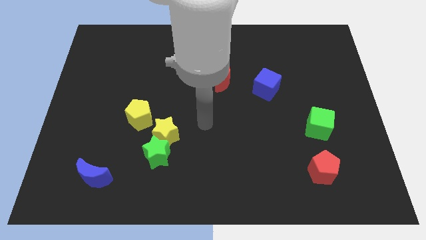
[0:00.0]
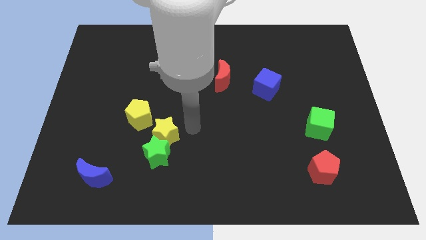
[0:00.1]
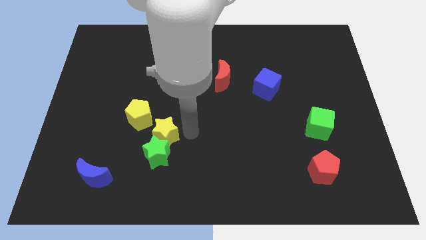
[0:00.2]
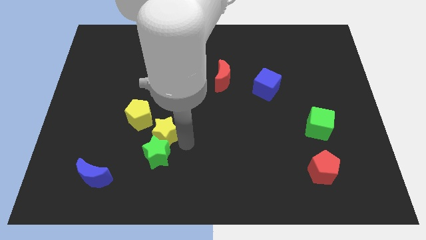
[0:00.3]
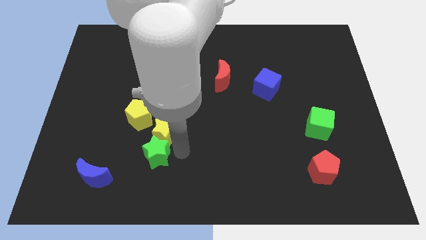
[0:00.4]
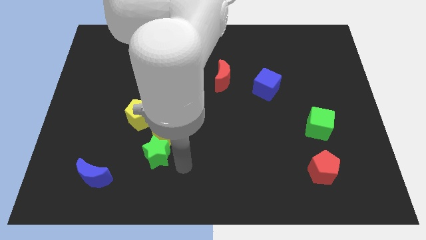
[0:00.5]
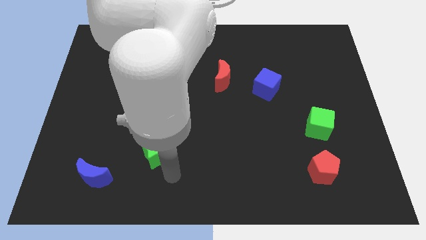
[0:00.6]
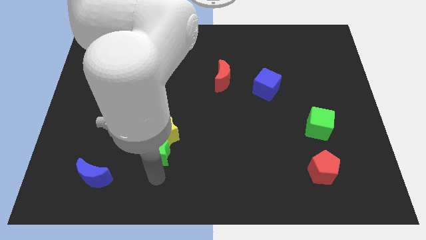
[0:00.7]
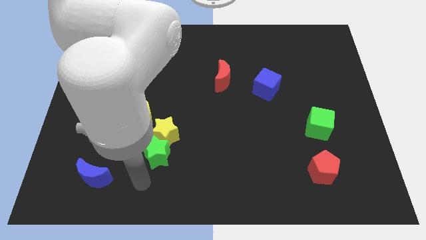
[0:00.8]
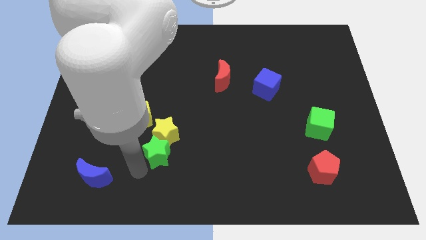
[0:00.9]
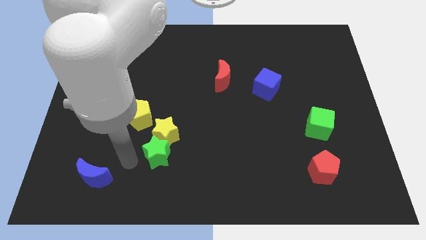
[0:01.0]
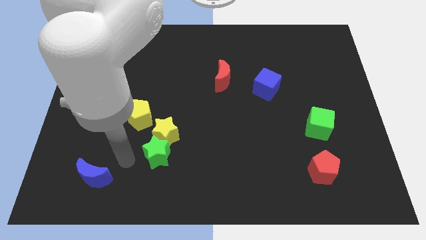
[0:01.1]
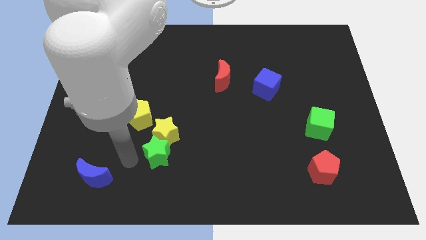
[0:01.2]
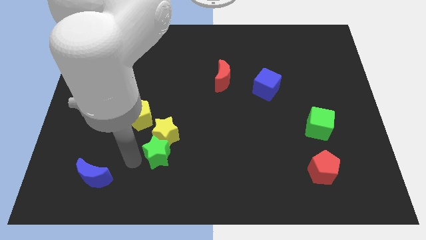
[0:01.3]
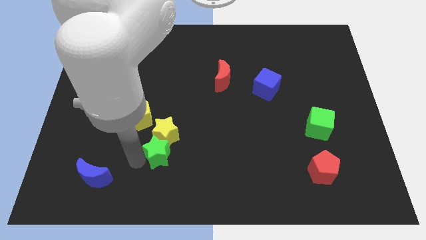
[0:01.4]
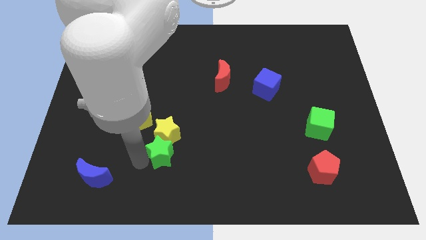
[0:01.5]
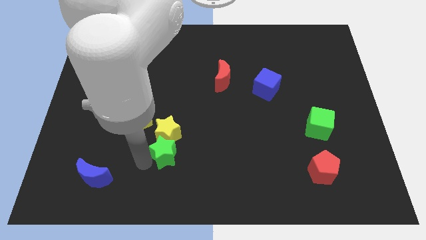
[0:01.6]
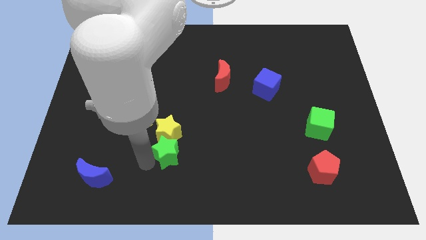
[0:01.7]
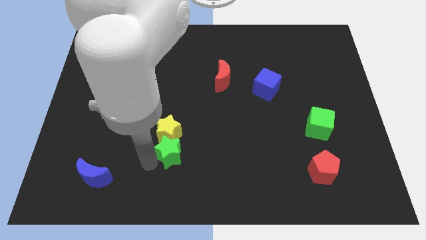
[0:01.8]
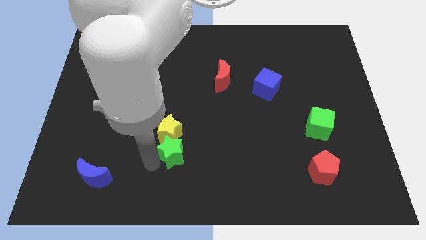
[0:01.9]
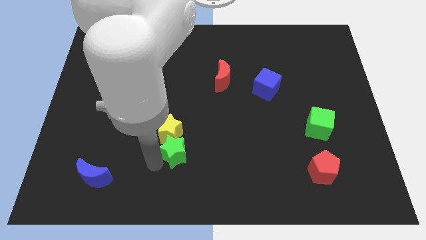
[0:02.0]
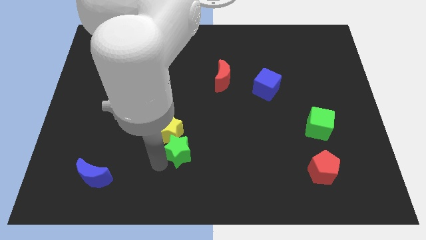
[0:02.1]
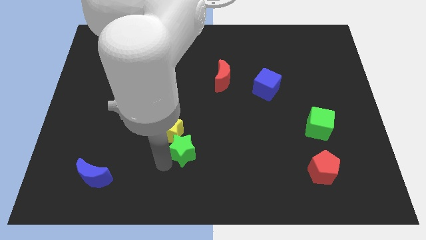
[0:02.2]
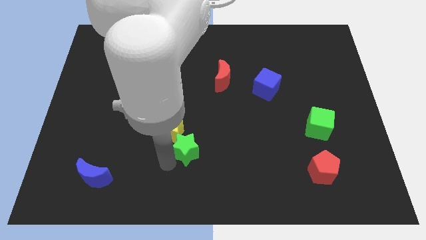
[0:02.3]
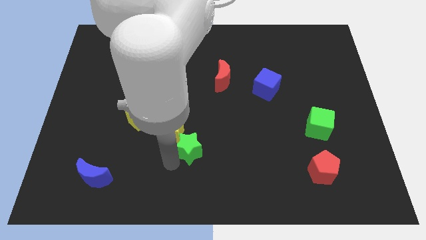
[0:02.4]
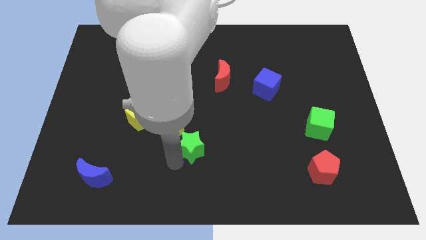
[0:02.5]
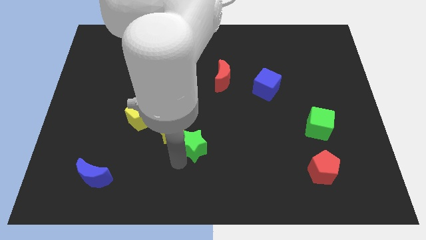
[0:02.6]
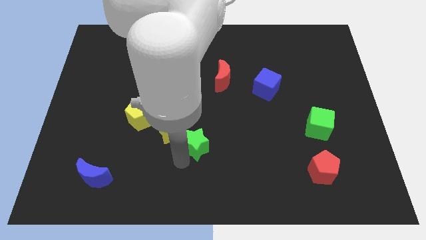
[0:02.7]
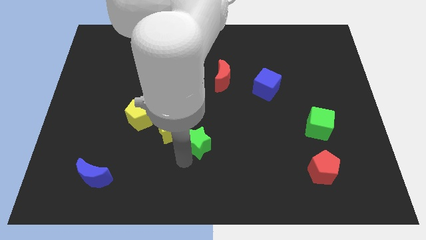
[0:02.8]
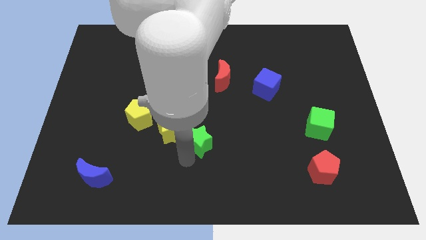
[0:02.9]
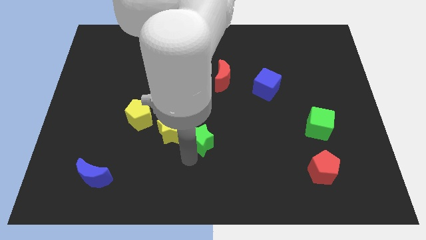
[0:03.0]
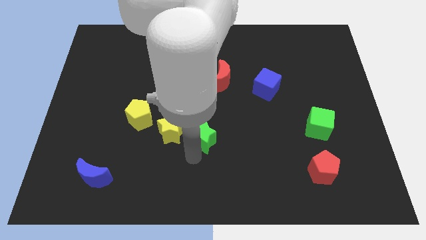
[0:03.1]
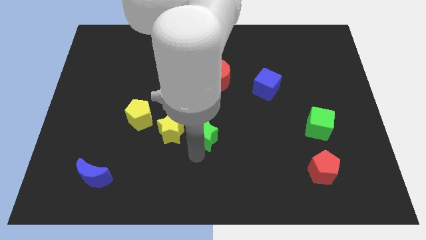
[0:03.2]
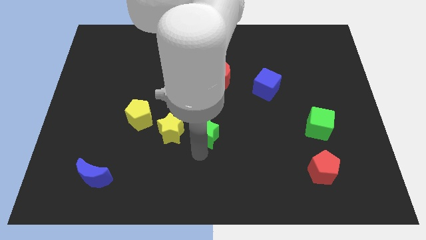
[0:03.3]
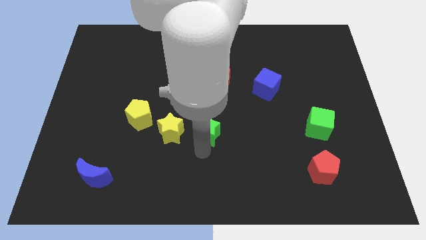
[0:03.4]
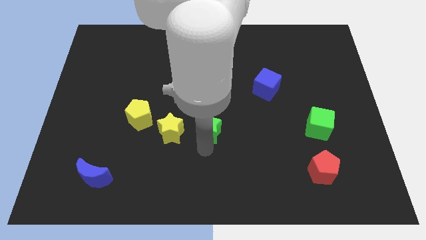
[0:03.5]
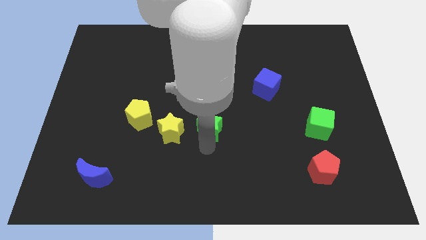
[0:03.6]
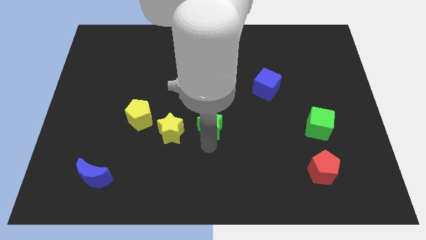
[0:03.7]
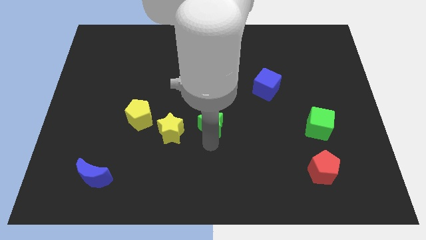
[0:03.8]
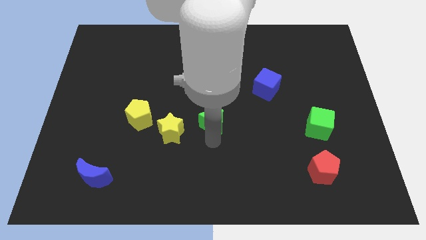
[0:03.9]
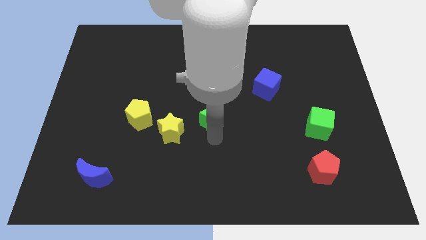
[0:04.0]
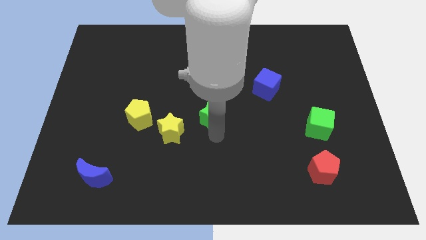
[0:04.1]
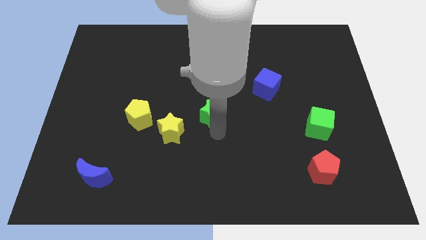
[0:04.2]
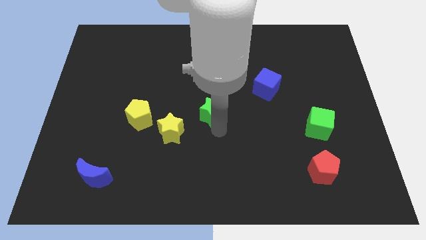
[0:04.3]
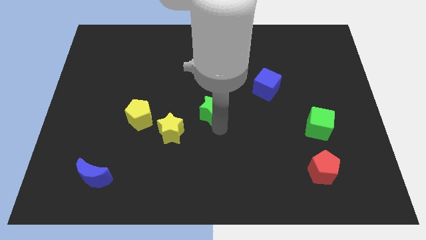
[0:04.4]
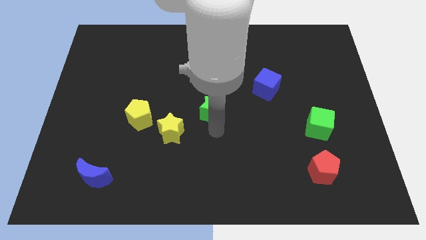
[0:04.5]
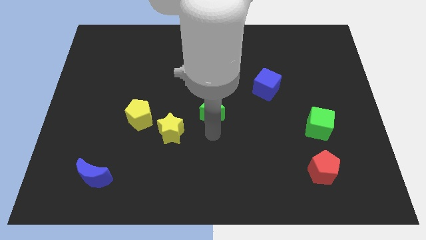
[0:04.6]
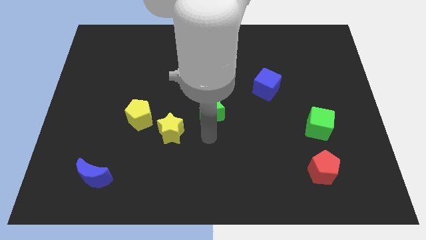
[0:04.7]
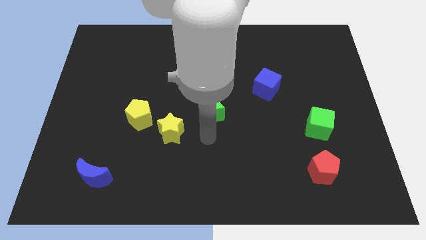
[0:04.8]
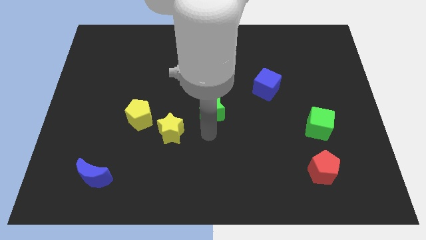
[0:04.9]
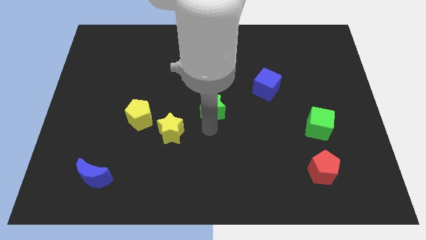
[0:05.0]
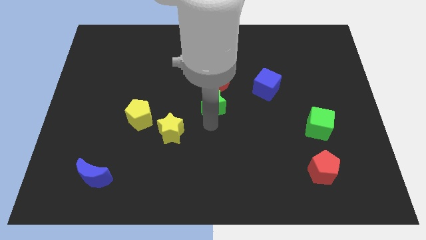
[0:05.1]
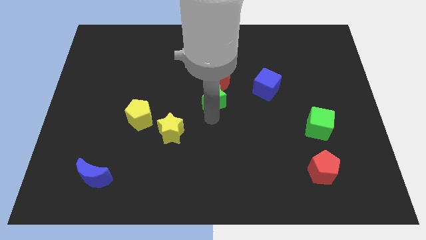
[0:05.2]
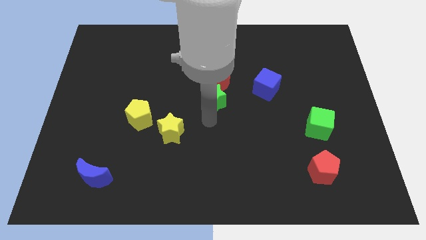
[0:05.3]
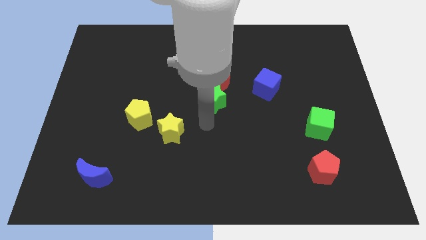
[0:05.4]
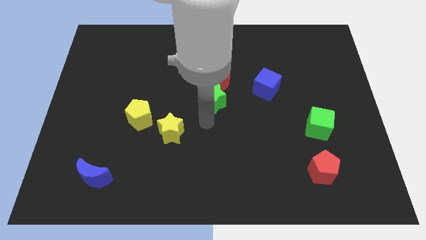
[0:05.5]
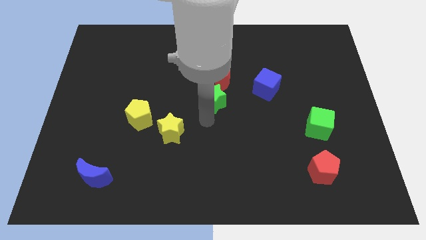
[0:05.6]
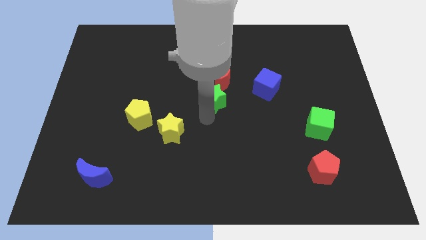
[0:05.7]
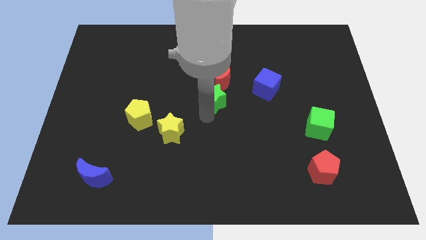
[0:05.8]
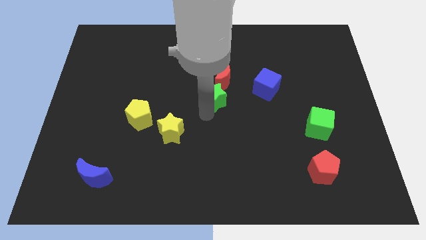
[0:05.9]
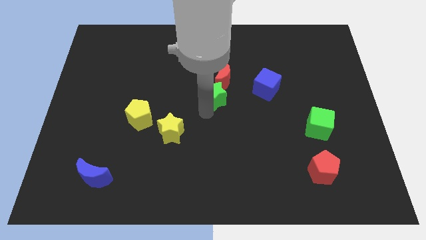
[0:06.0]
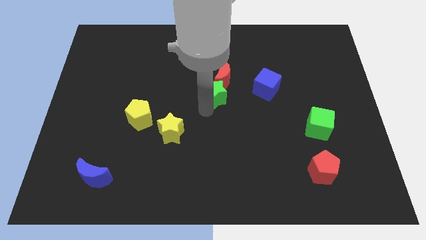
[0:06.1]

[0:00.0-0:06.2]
move the green star towards the red moon

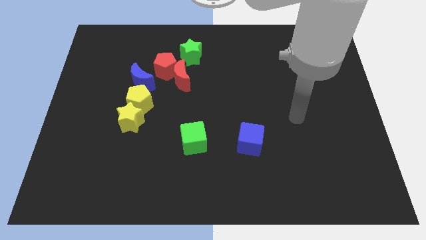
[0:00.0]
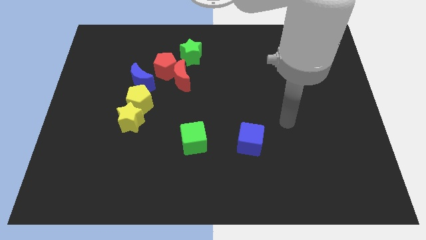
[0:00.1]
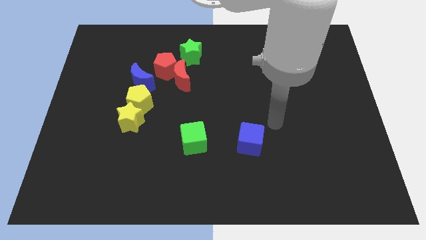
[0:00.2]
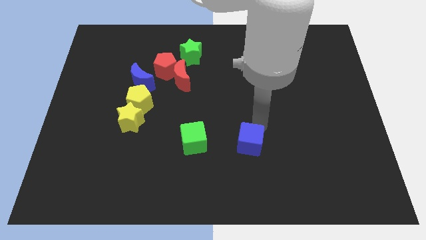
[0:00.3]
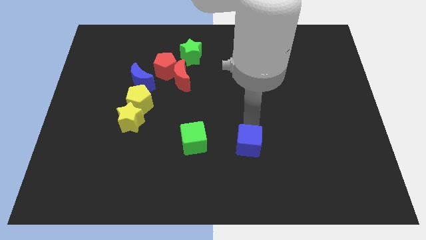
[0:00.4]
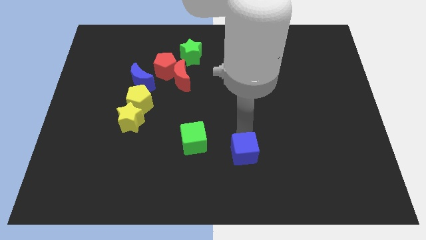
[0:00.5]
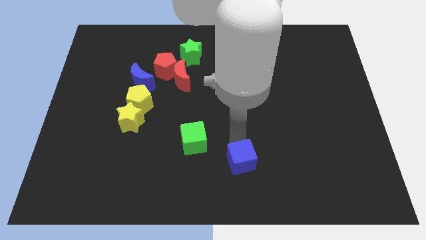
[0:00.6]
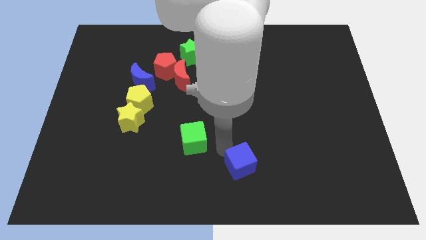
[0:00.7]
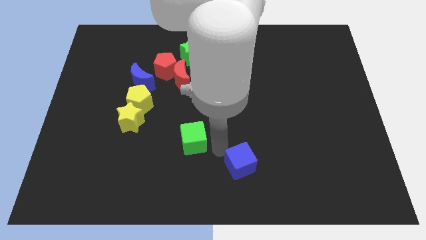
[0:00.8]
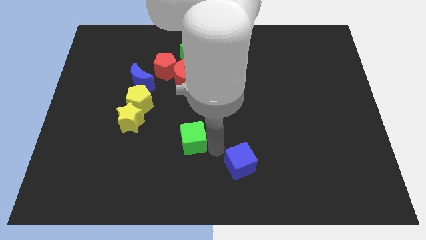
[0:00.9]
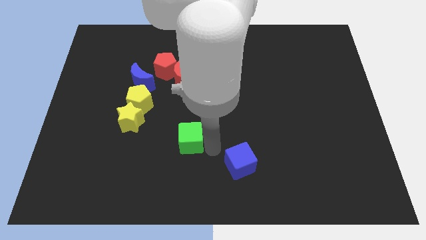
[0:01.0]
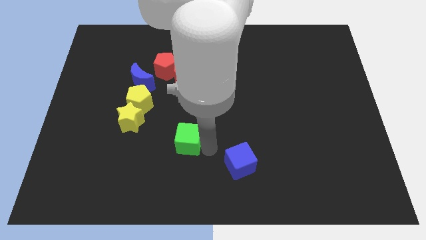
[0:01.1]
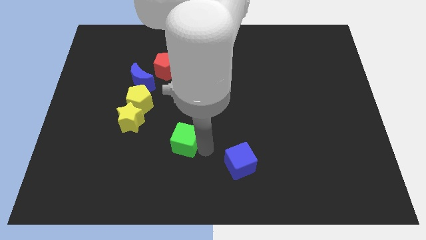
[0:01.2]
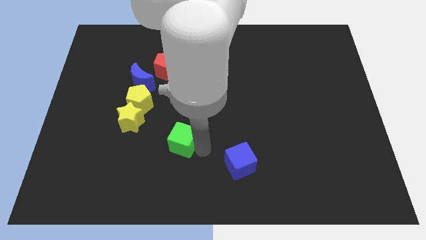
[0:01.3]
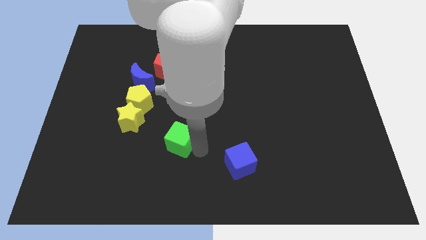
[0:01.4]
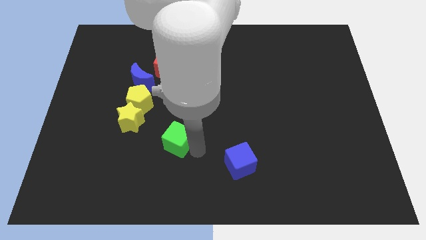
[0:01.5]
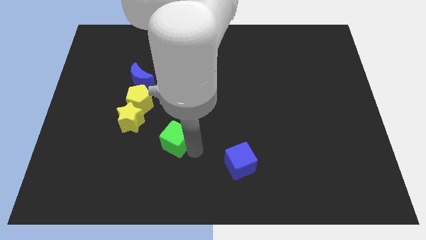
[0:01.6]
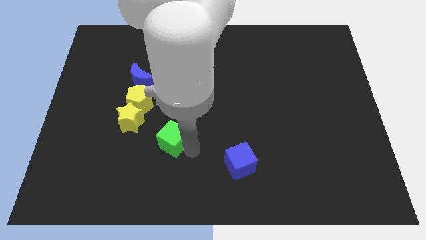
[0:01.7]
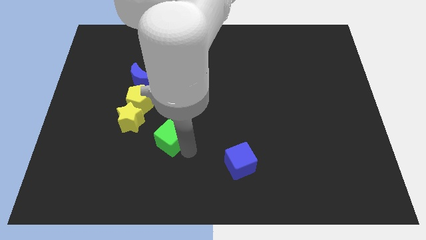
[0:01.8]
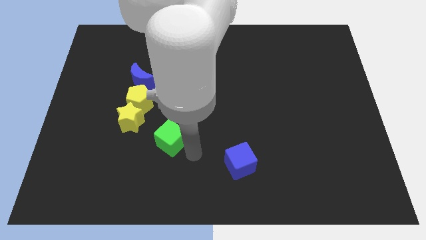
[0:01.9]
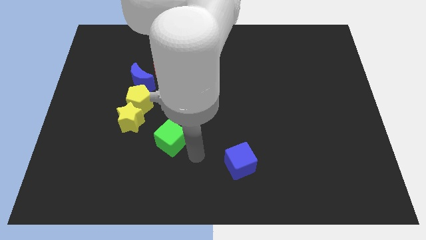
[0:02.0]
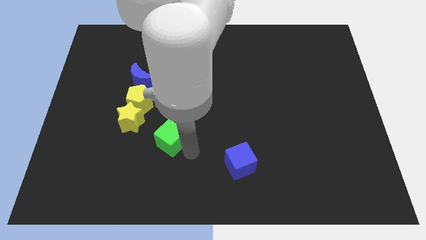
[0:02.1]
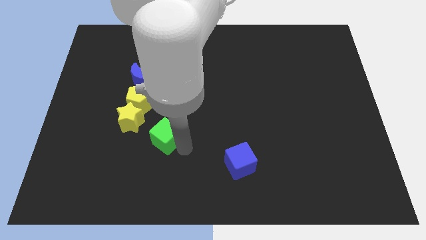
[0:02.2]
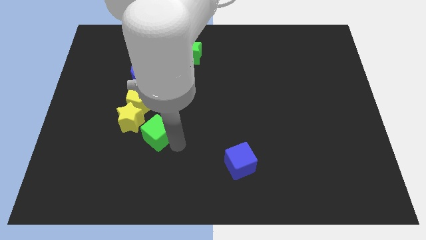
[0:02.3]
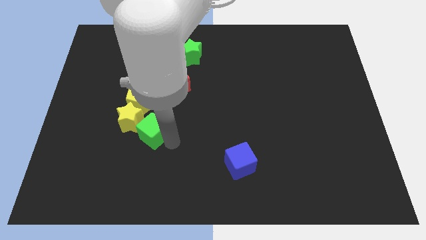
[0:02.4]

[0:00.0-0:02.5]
move the green cube close to the yellow star
